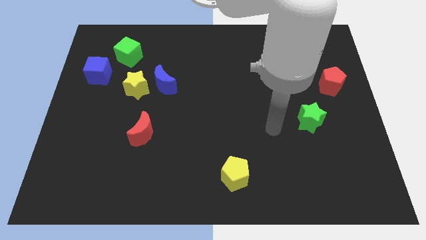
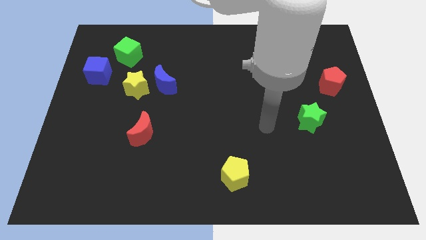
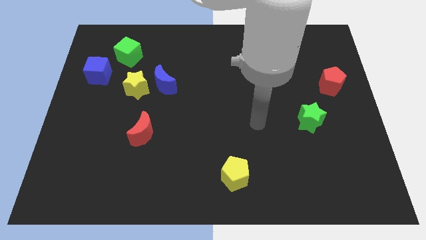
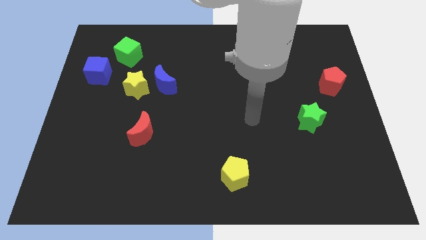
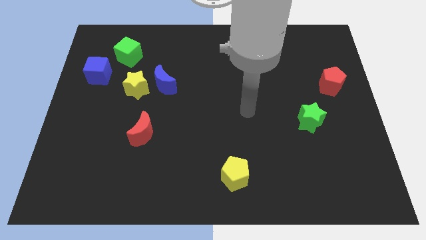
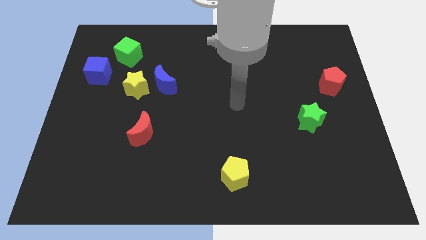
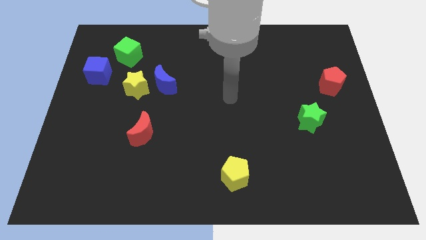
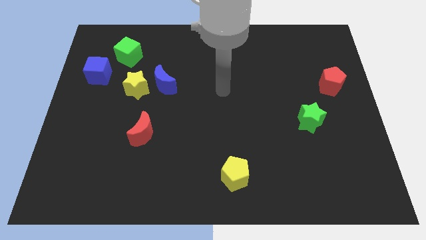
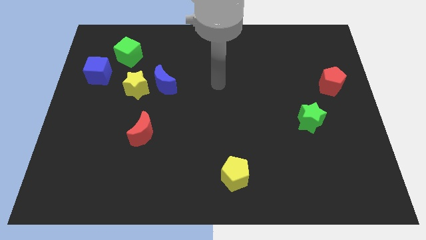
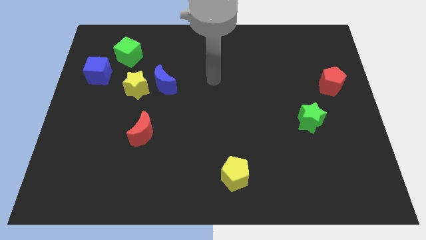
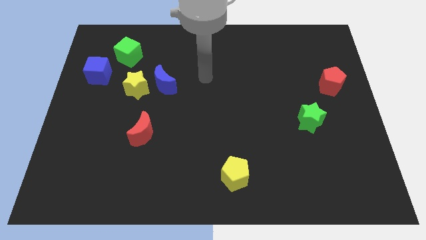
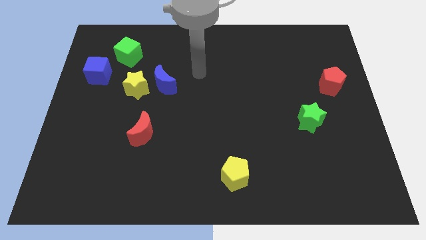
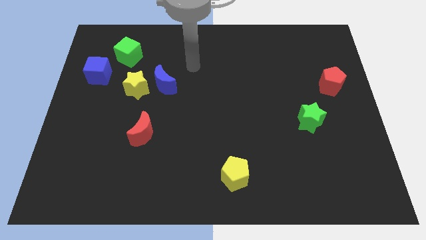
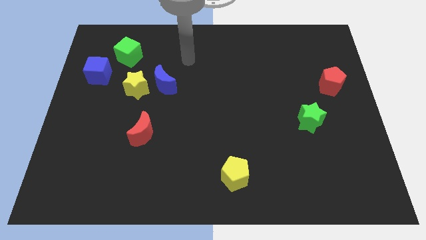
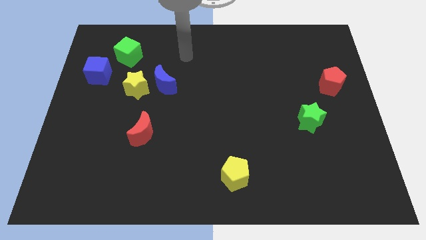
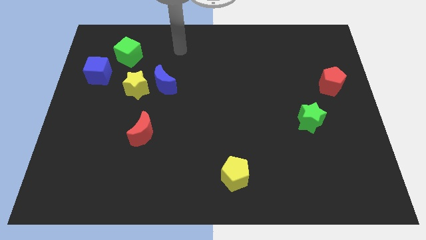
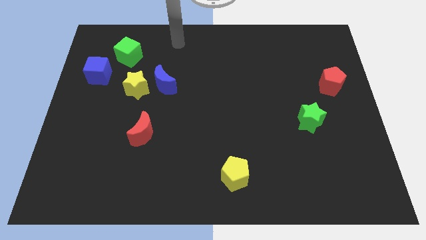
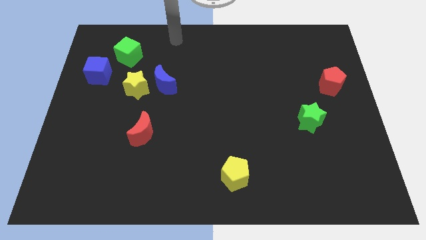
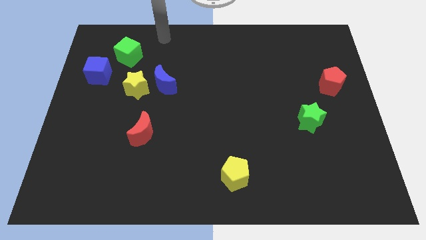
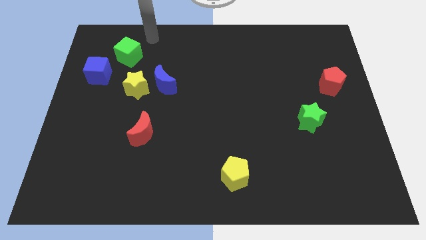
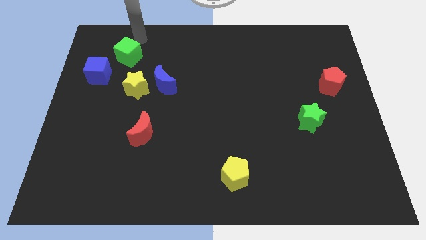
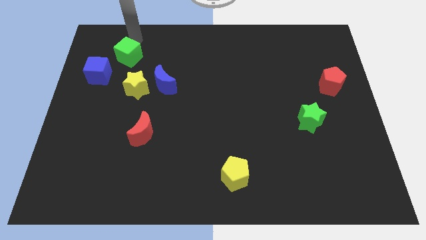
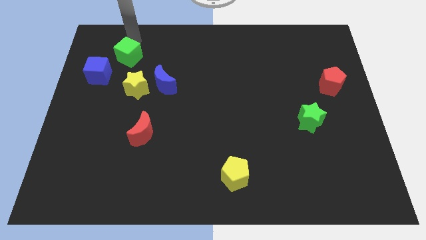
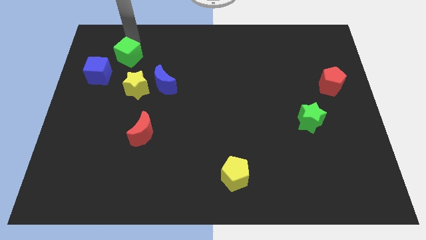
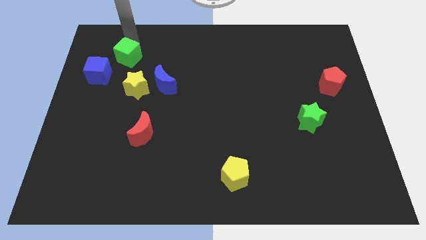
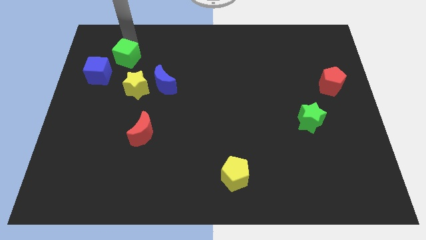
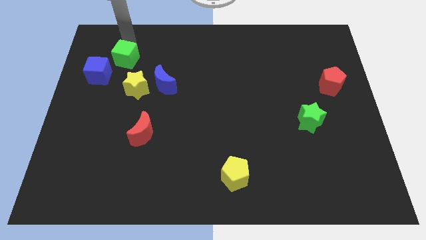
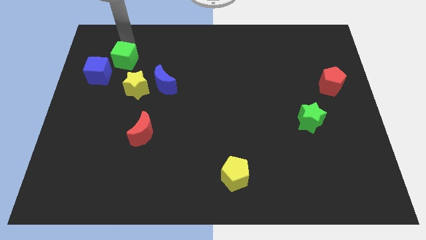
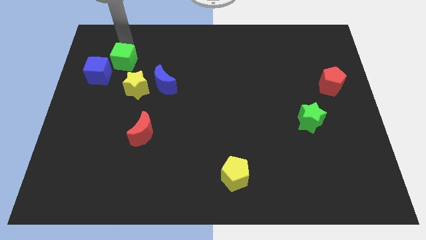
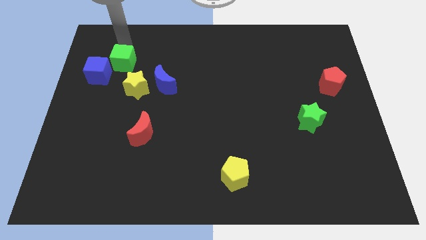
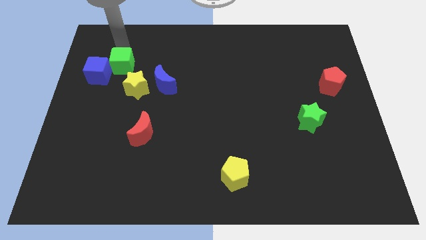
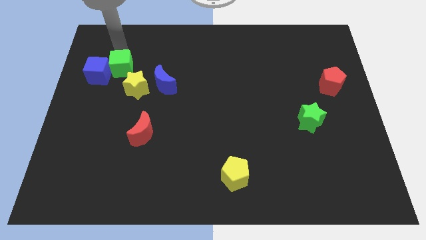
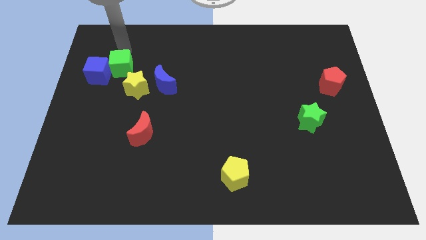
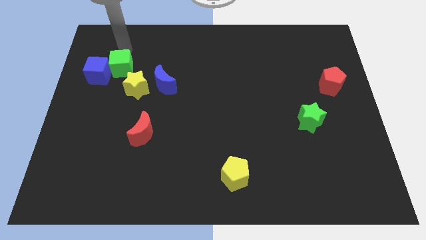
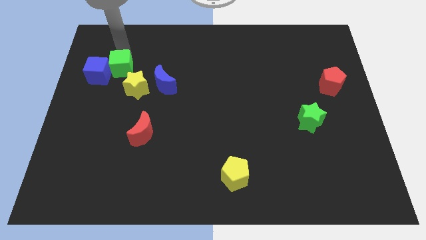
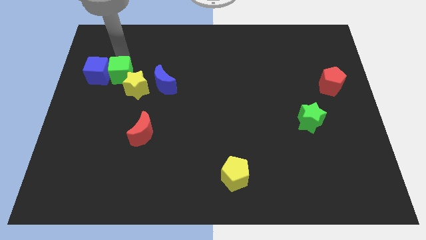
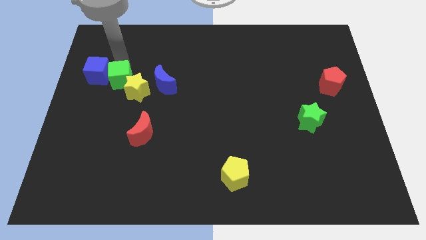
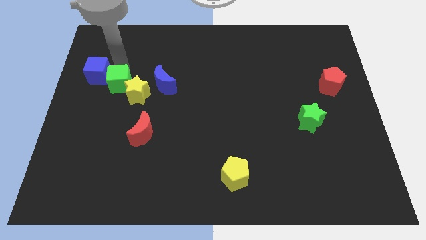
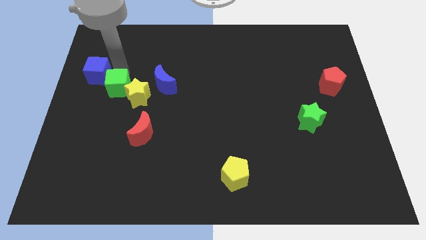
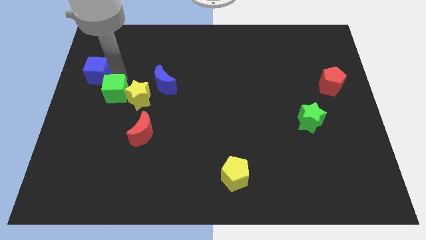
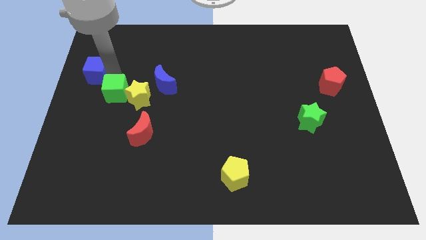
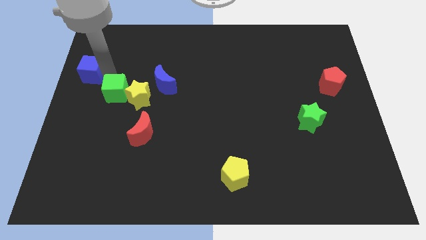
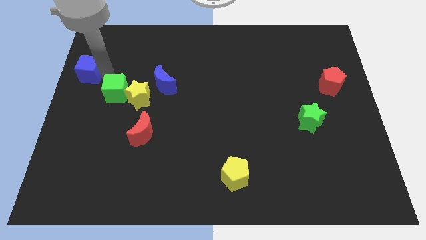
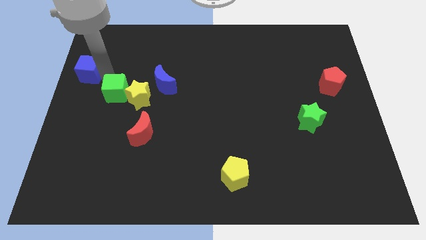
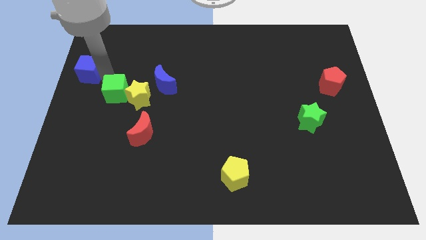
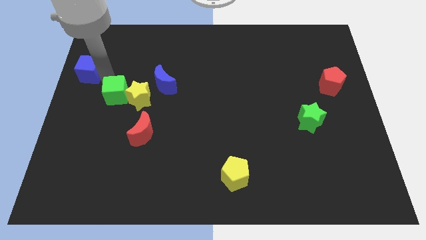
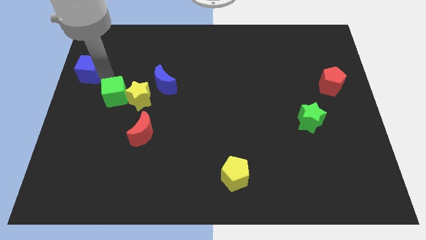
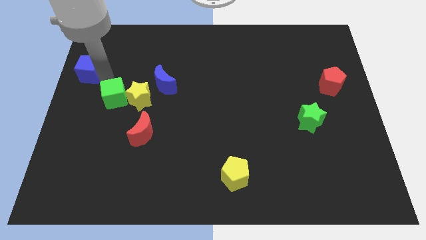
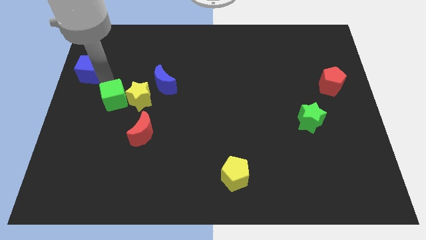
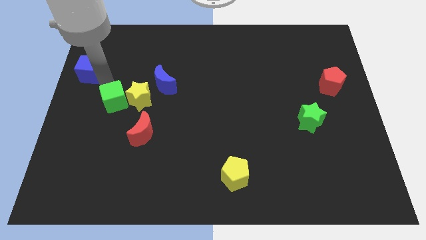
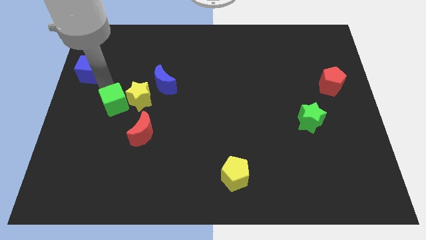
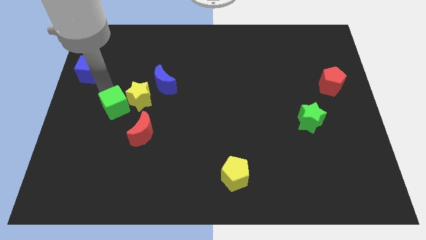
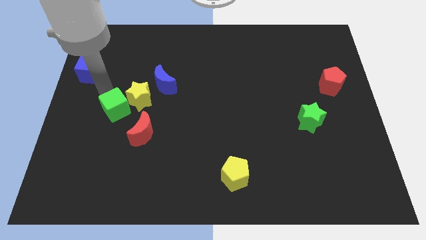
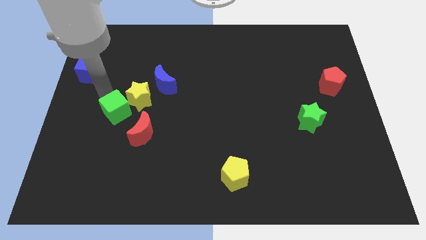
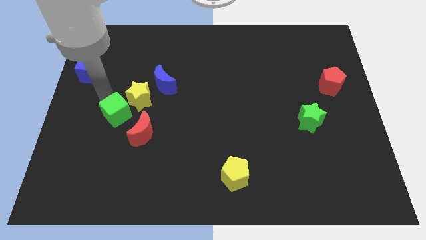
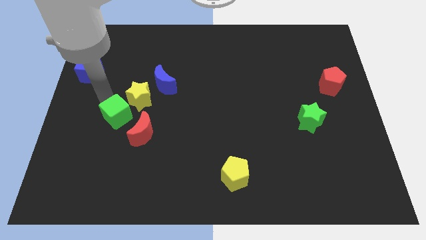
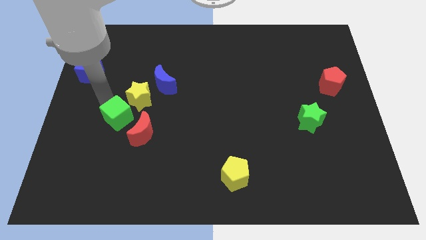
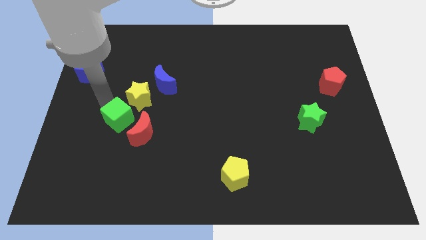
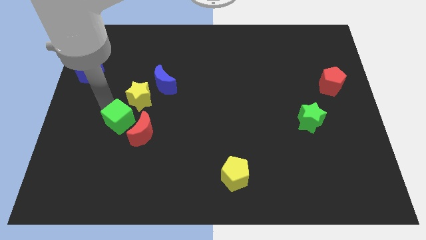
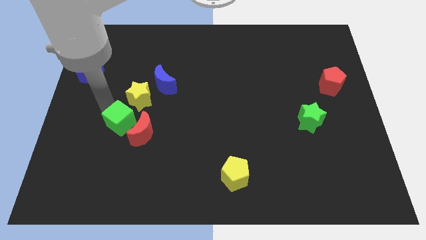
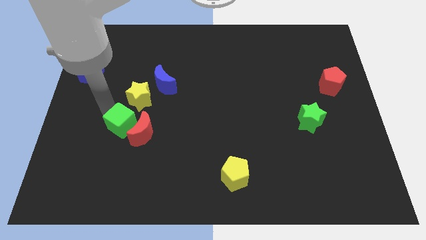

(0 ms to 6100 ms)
slide the green cube to the red moon

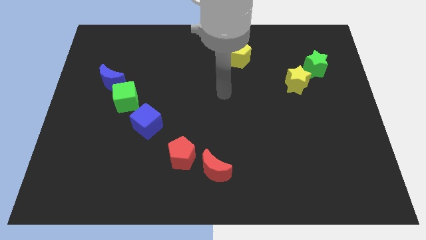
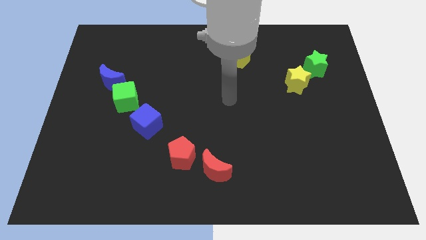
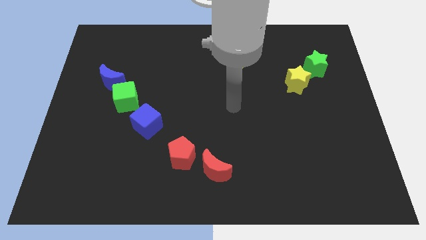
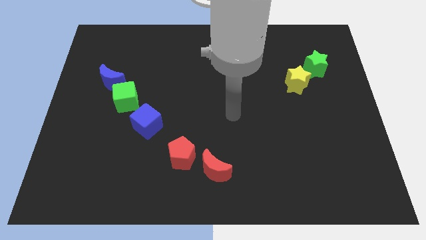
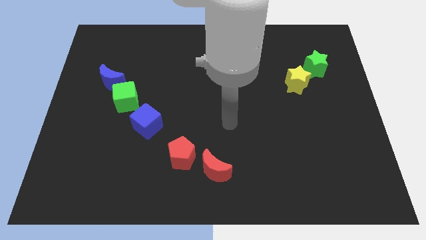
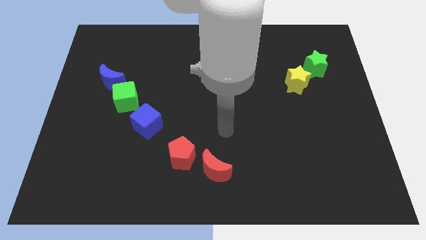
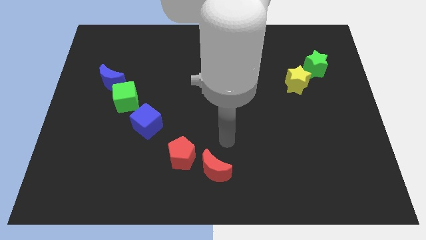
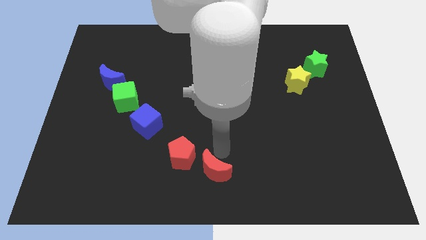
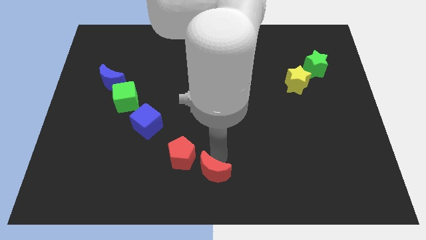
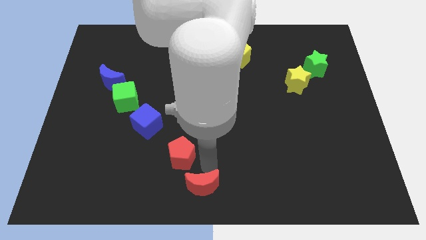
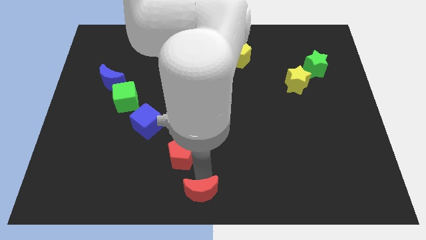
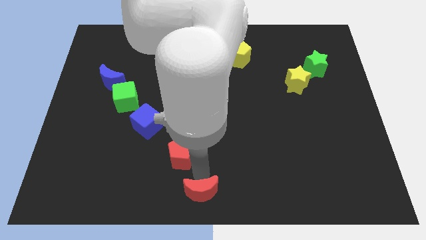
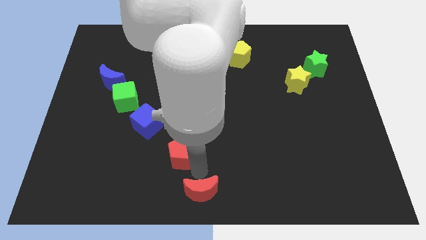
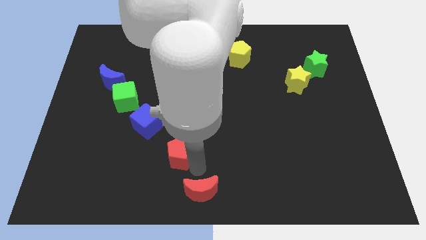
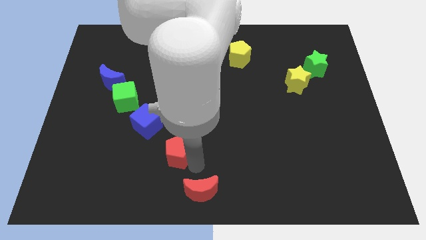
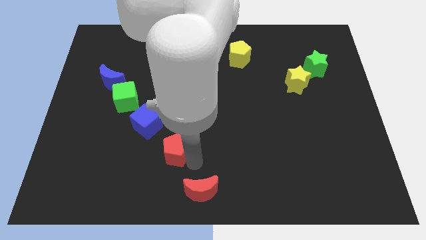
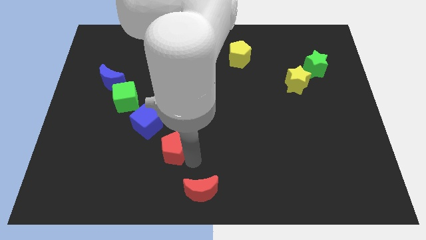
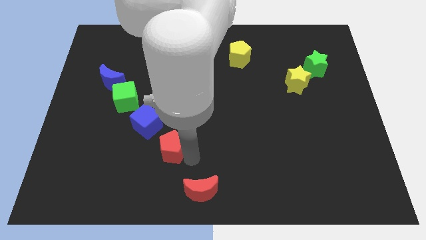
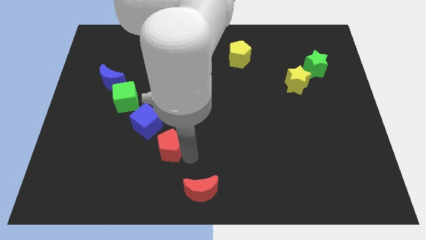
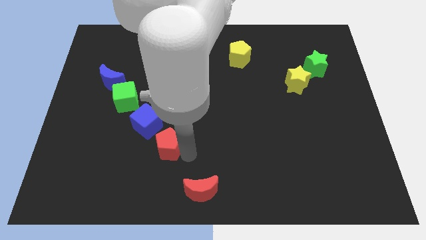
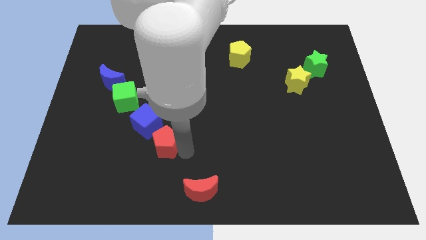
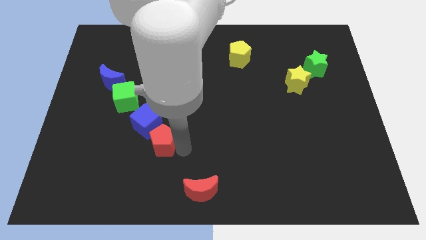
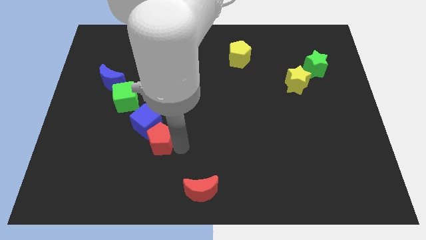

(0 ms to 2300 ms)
move the red pentagon next to the blue cube
